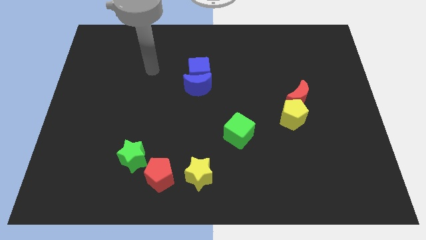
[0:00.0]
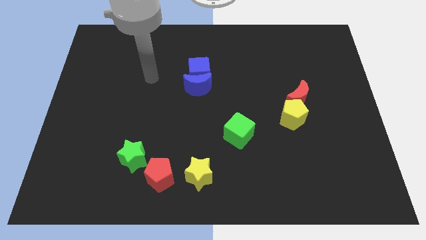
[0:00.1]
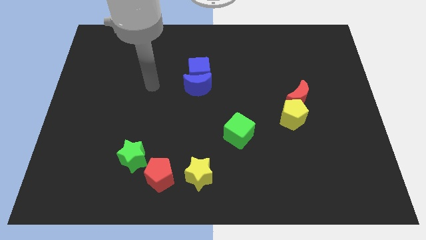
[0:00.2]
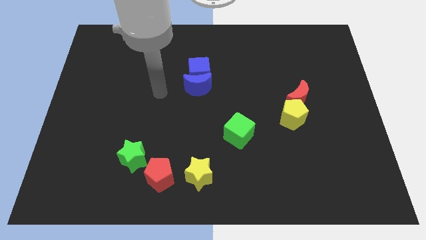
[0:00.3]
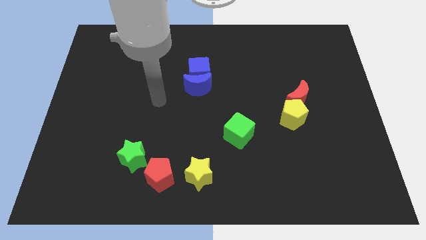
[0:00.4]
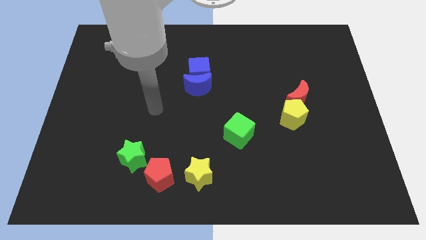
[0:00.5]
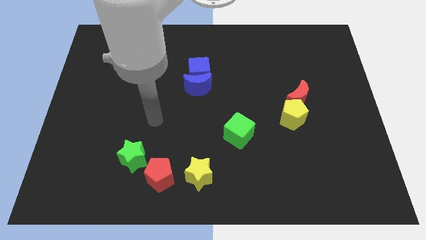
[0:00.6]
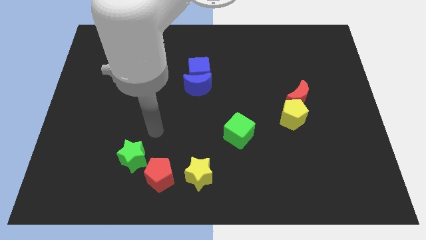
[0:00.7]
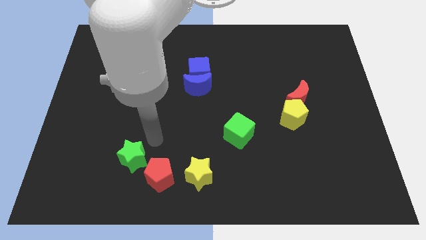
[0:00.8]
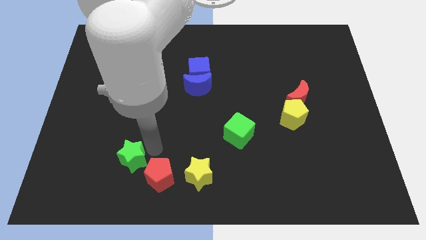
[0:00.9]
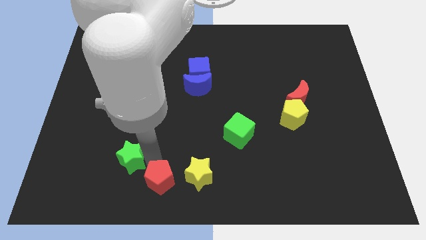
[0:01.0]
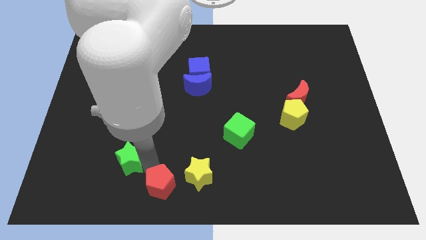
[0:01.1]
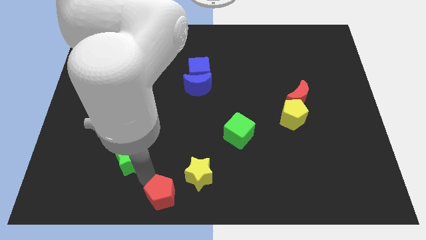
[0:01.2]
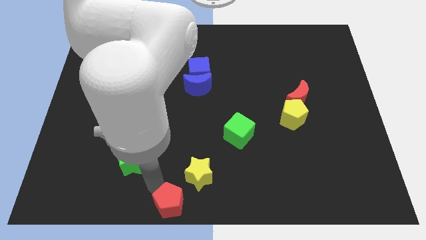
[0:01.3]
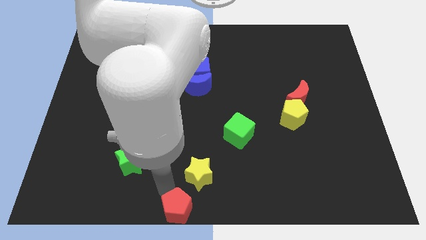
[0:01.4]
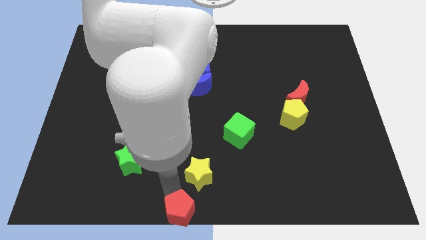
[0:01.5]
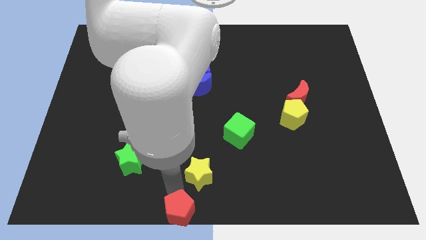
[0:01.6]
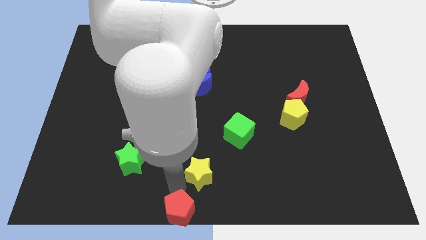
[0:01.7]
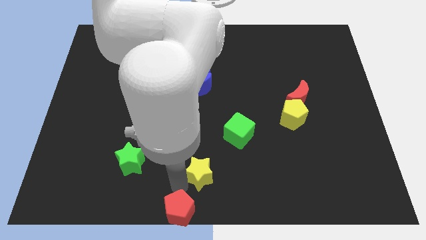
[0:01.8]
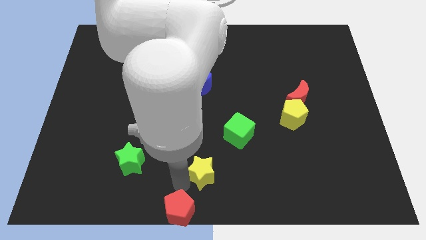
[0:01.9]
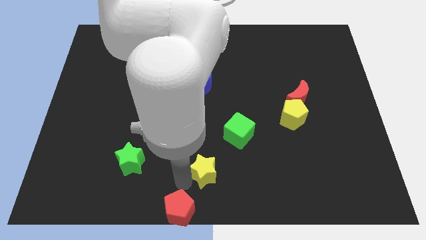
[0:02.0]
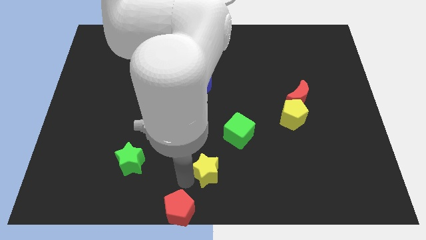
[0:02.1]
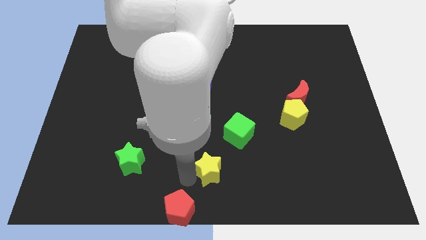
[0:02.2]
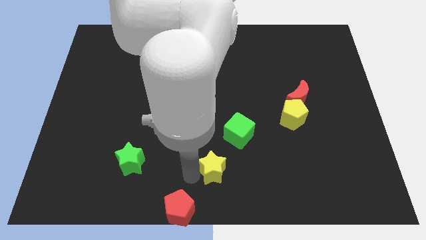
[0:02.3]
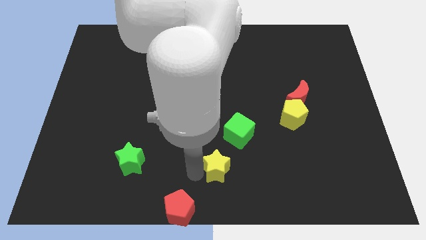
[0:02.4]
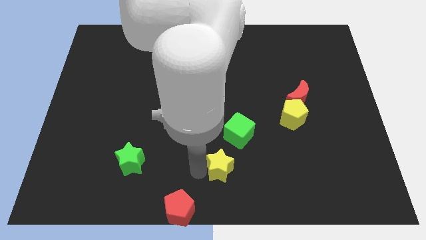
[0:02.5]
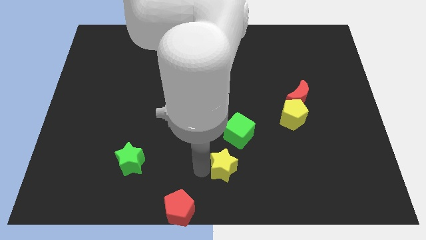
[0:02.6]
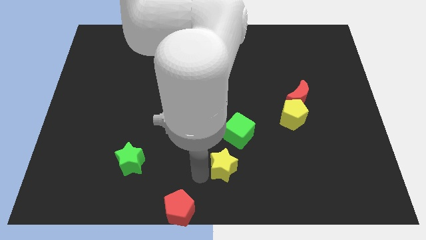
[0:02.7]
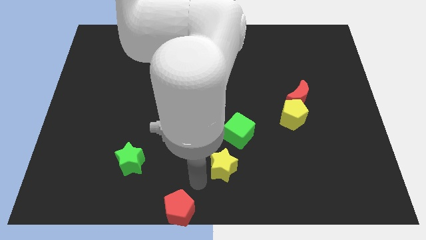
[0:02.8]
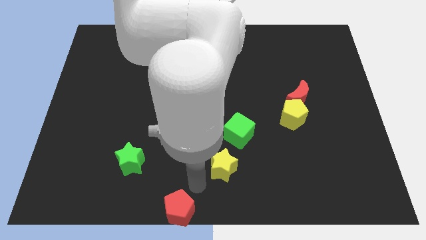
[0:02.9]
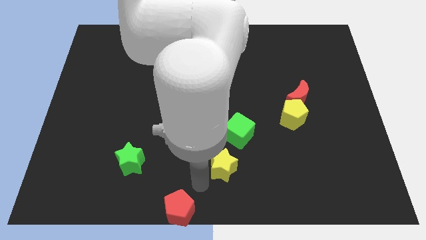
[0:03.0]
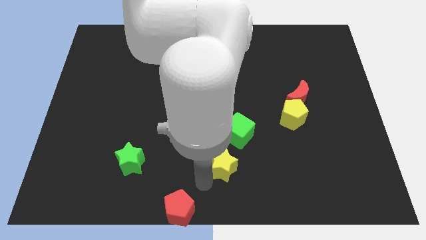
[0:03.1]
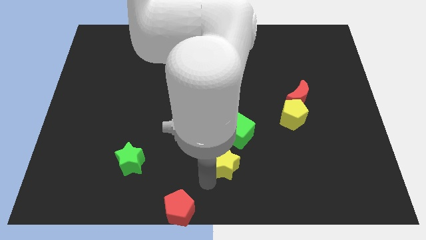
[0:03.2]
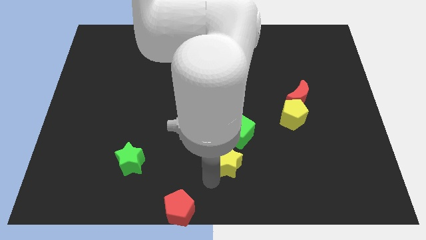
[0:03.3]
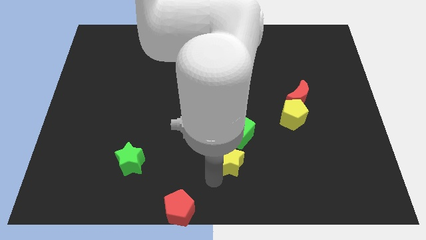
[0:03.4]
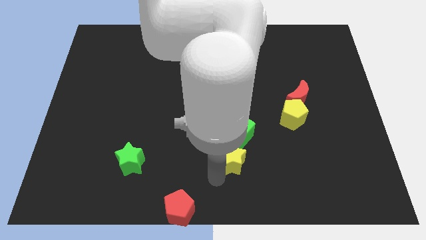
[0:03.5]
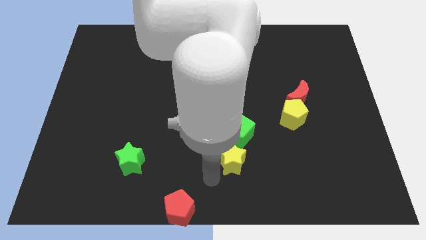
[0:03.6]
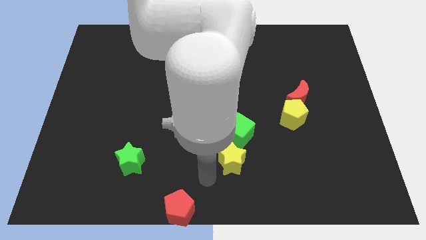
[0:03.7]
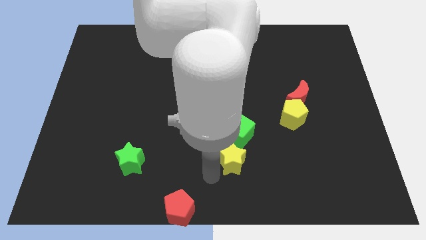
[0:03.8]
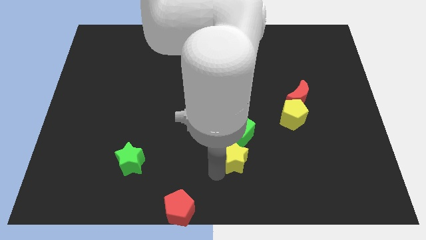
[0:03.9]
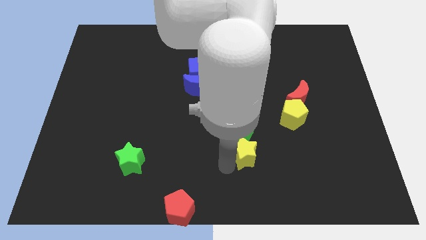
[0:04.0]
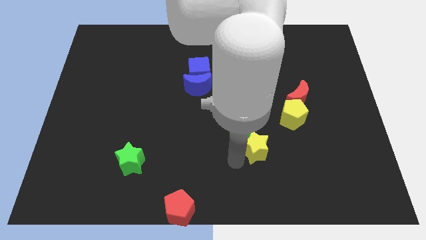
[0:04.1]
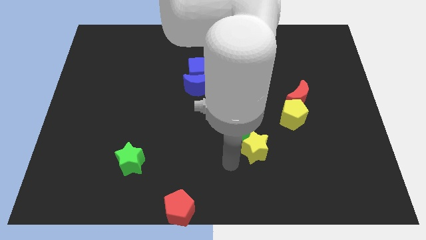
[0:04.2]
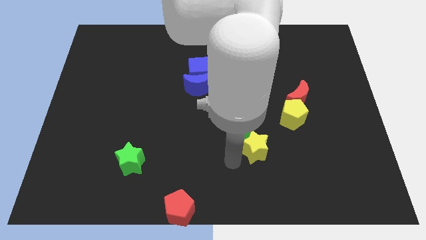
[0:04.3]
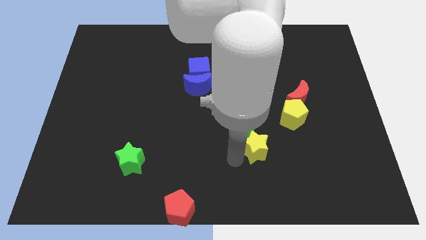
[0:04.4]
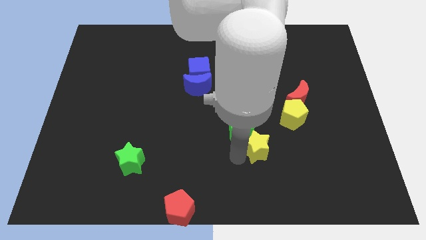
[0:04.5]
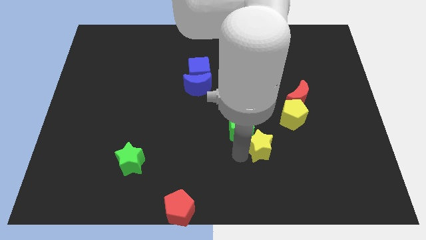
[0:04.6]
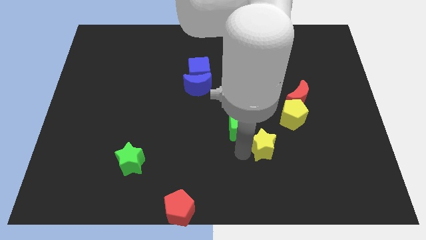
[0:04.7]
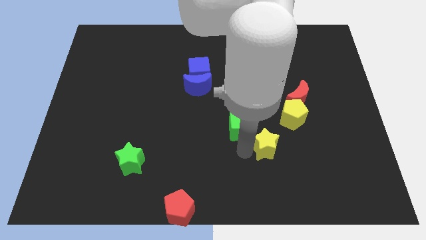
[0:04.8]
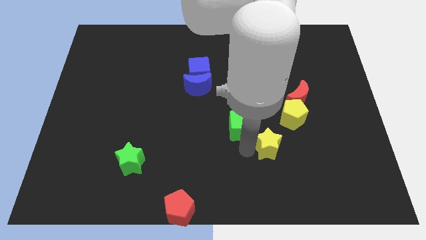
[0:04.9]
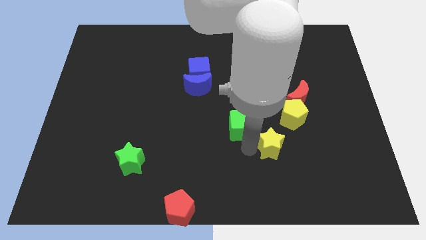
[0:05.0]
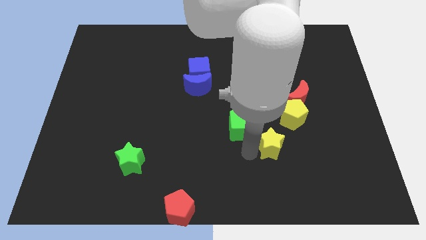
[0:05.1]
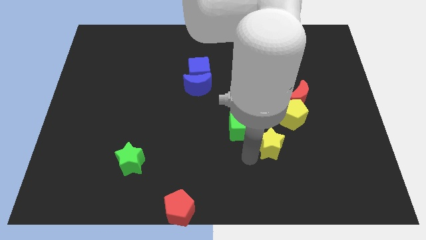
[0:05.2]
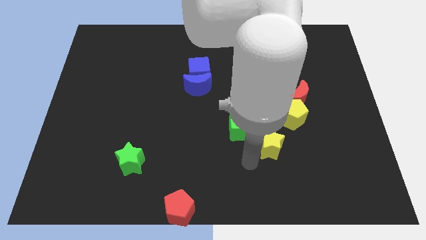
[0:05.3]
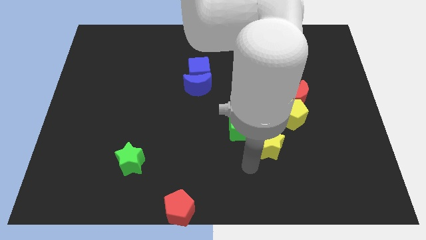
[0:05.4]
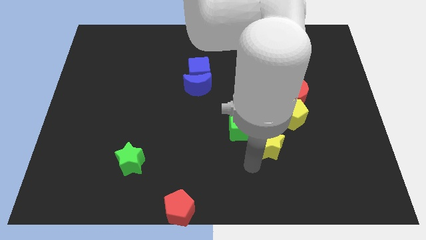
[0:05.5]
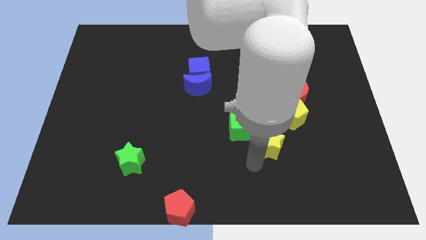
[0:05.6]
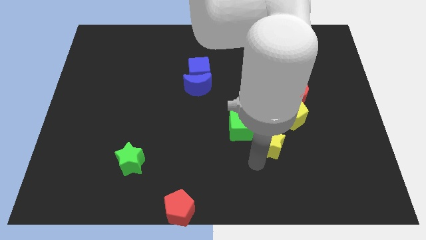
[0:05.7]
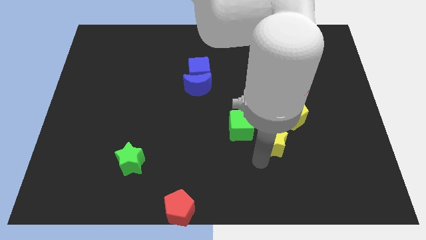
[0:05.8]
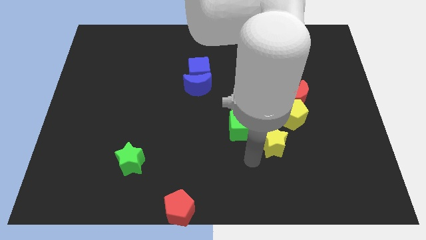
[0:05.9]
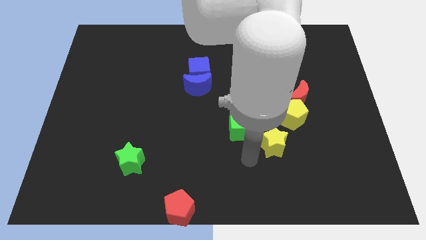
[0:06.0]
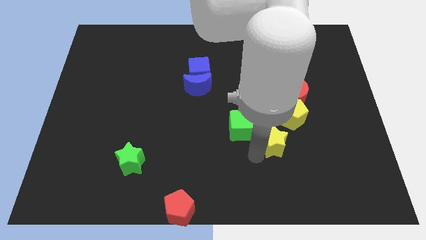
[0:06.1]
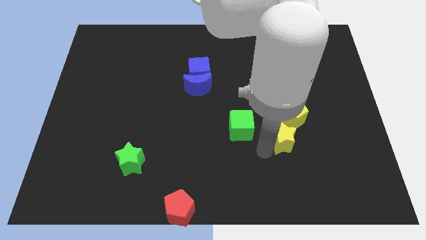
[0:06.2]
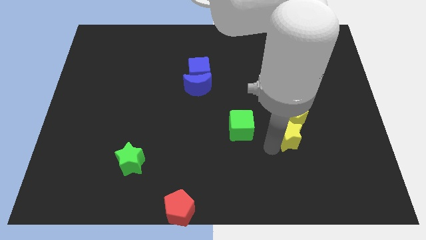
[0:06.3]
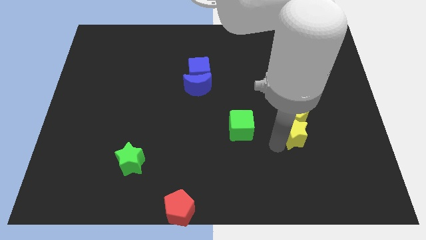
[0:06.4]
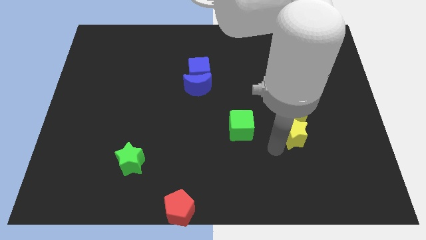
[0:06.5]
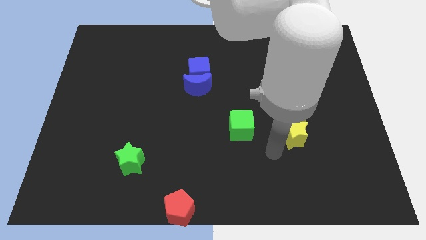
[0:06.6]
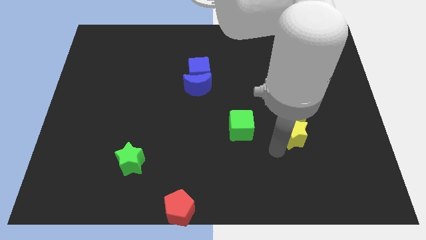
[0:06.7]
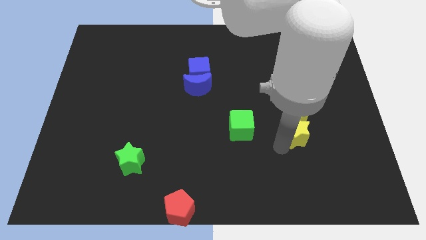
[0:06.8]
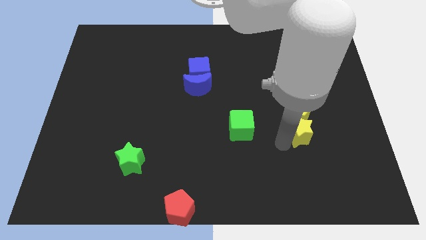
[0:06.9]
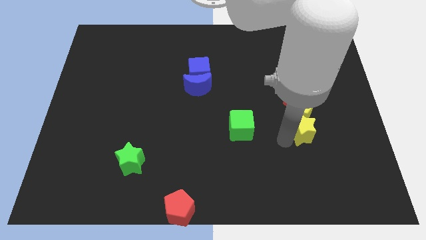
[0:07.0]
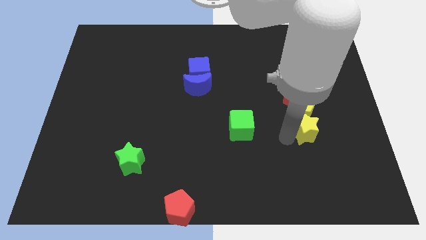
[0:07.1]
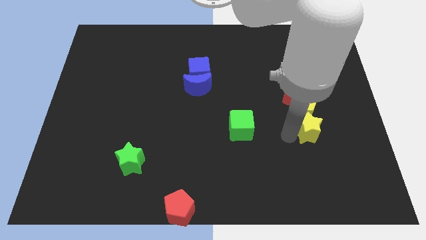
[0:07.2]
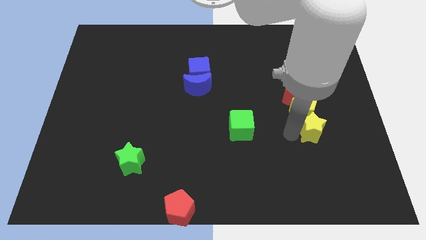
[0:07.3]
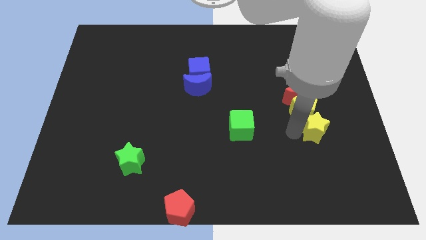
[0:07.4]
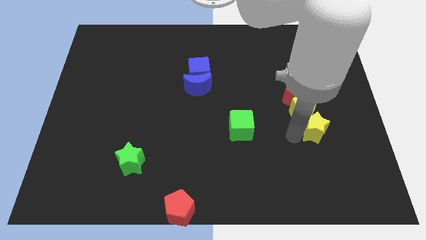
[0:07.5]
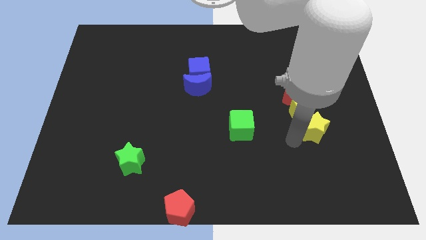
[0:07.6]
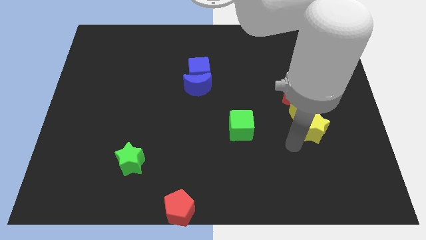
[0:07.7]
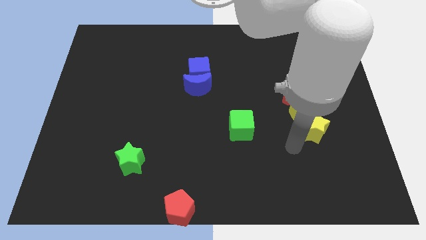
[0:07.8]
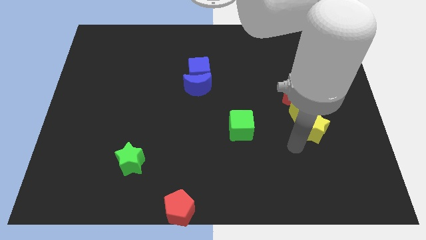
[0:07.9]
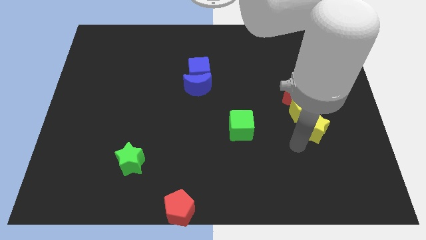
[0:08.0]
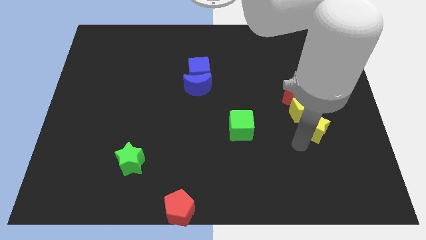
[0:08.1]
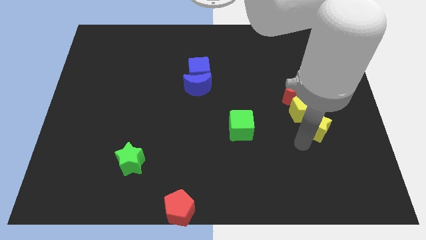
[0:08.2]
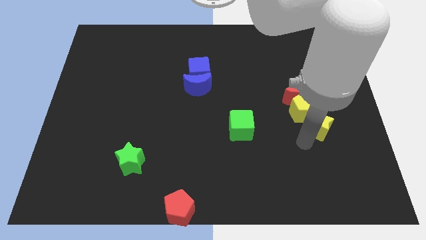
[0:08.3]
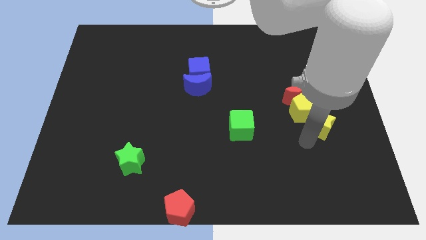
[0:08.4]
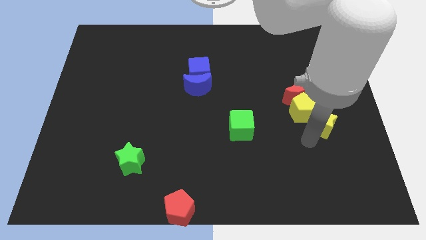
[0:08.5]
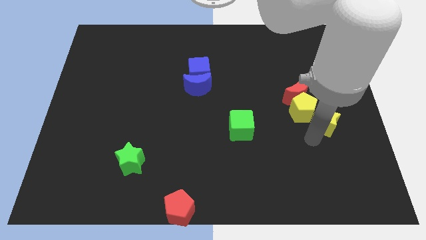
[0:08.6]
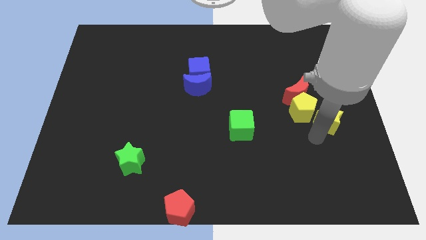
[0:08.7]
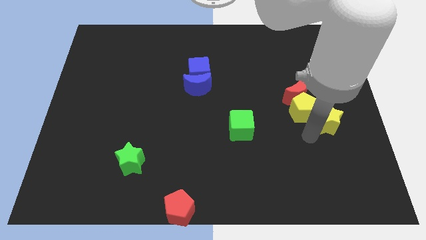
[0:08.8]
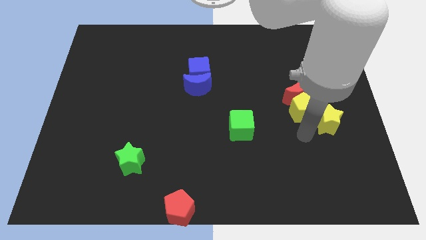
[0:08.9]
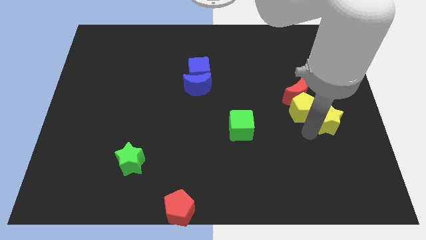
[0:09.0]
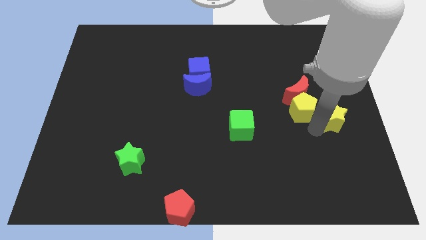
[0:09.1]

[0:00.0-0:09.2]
put the yellow star to the right side
